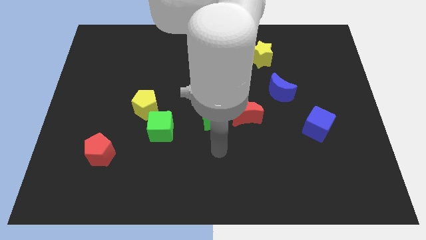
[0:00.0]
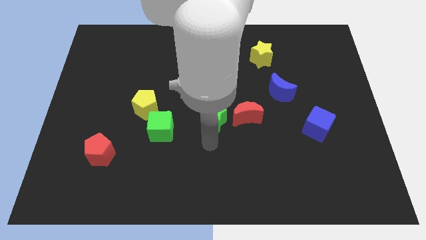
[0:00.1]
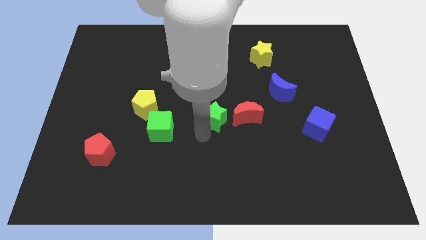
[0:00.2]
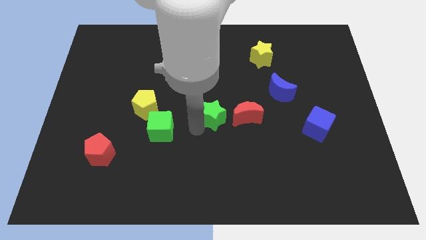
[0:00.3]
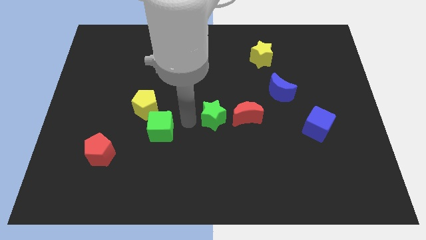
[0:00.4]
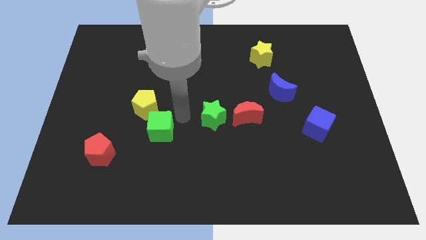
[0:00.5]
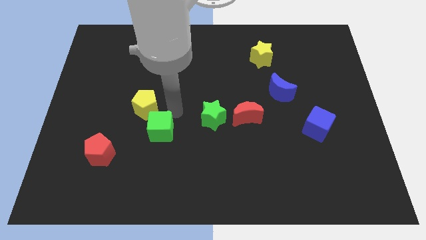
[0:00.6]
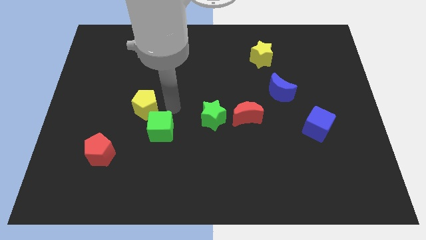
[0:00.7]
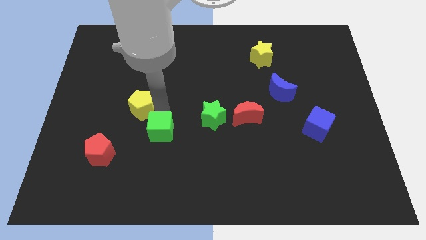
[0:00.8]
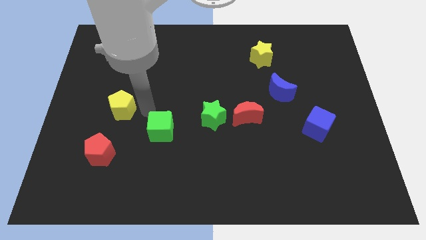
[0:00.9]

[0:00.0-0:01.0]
pull the green cube apart from the yellow pentagon

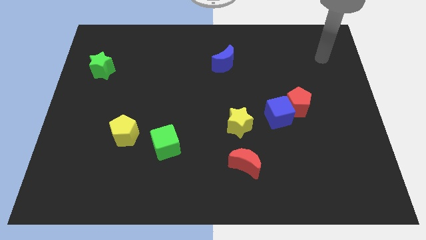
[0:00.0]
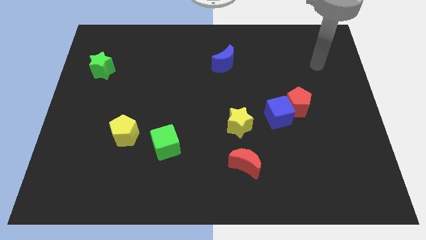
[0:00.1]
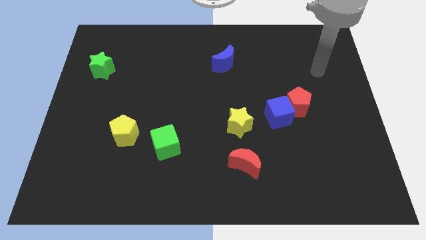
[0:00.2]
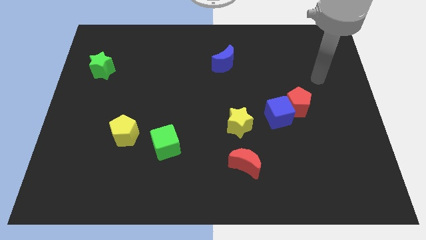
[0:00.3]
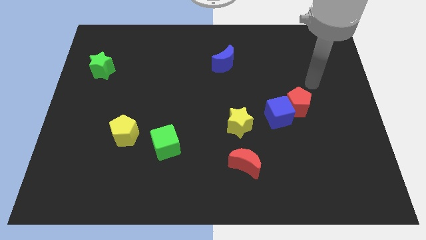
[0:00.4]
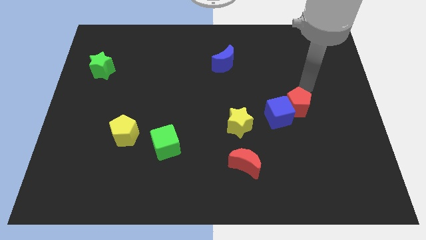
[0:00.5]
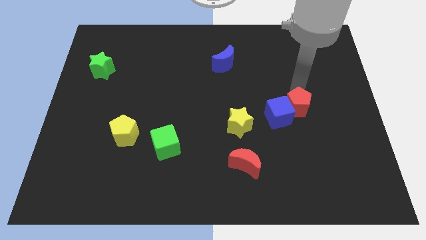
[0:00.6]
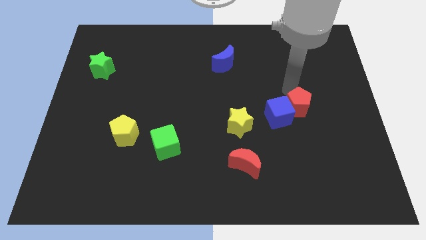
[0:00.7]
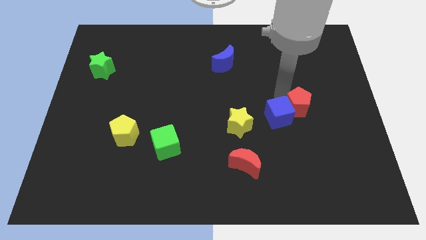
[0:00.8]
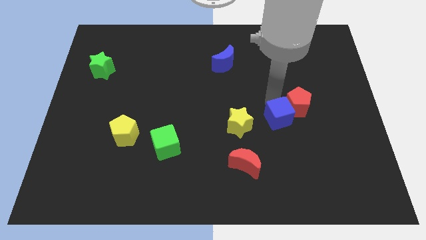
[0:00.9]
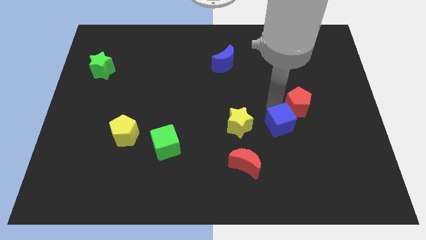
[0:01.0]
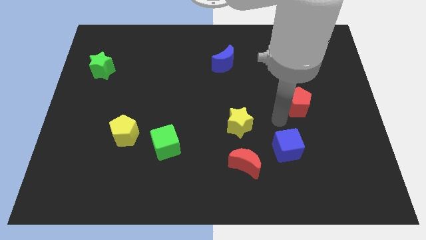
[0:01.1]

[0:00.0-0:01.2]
move the red pentagon away from the blue cube

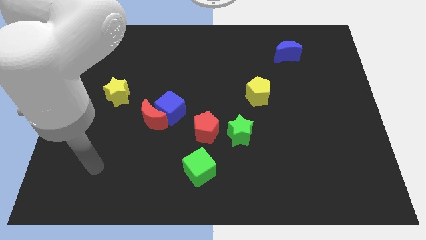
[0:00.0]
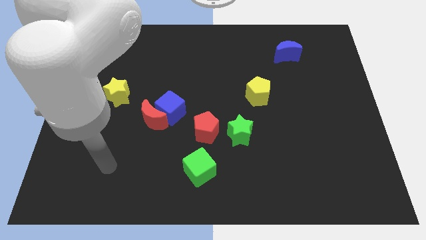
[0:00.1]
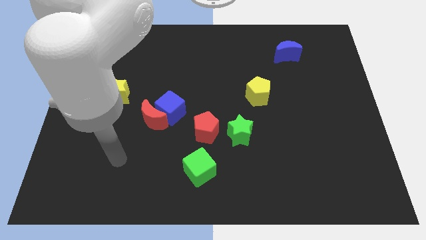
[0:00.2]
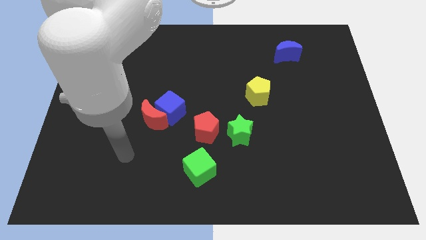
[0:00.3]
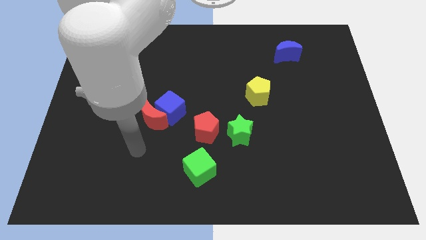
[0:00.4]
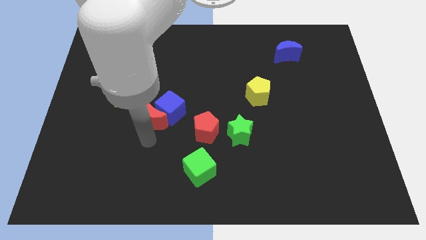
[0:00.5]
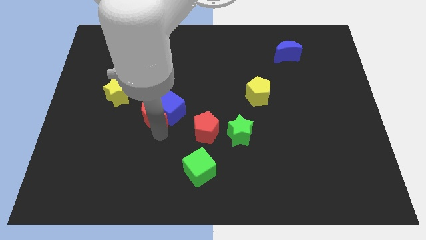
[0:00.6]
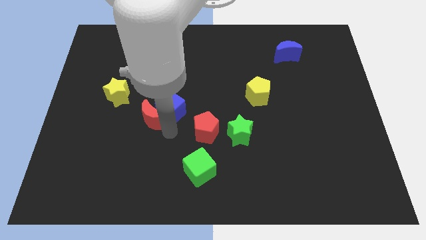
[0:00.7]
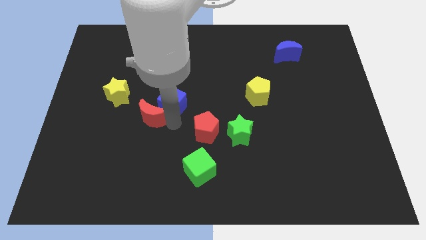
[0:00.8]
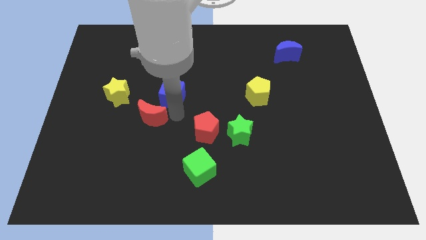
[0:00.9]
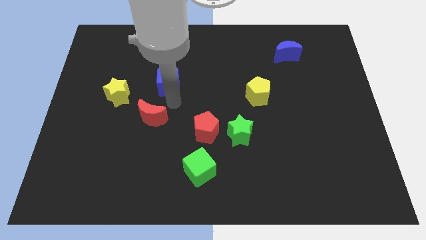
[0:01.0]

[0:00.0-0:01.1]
move the red moon away from the blue cube

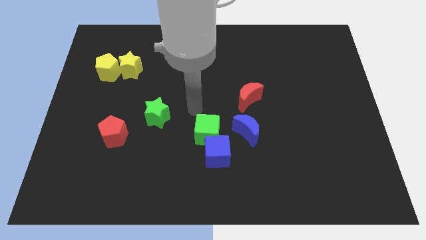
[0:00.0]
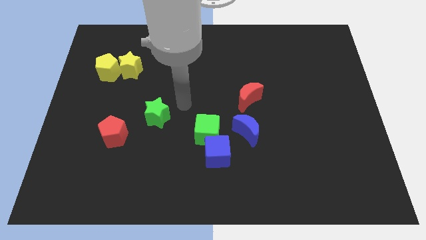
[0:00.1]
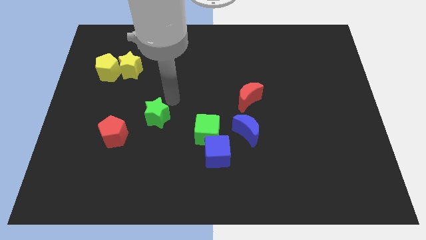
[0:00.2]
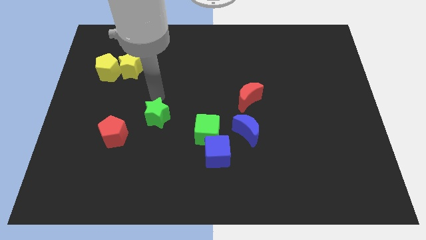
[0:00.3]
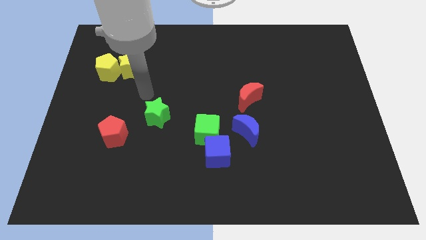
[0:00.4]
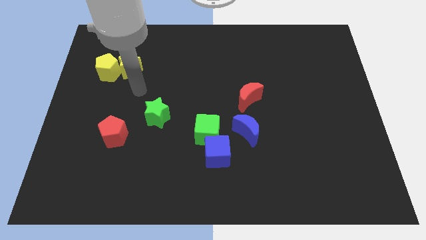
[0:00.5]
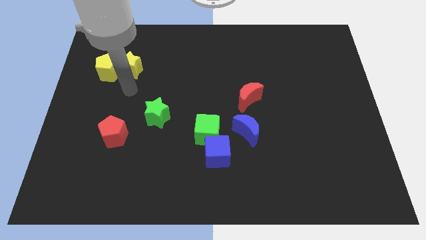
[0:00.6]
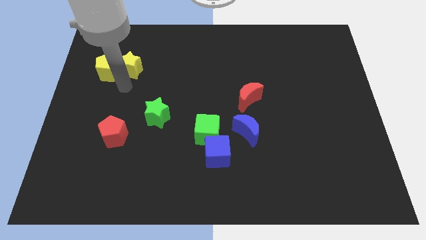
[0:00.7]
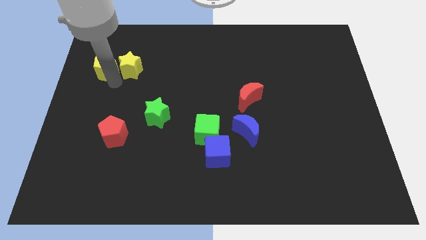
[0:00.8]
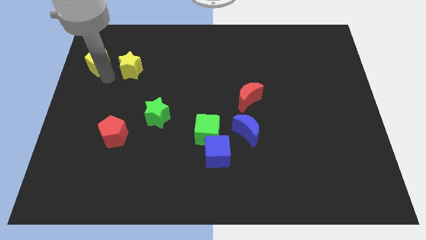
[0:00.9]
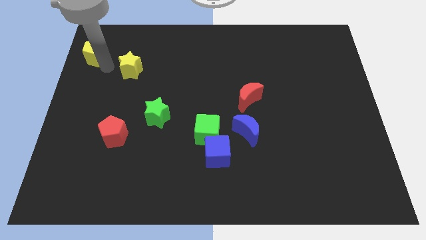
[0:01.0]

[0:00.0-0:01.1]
move the yellow star away from the yellow pentagon

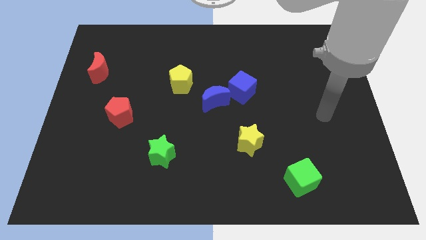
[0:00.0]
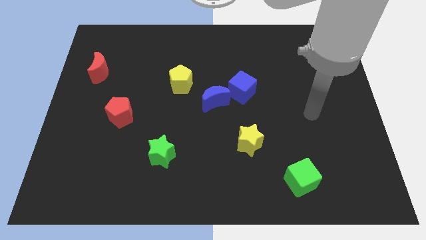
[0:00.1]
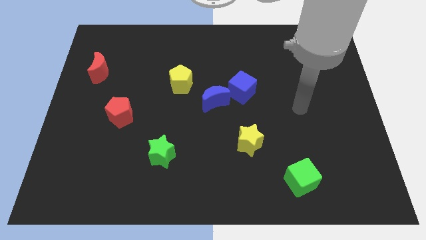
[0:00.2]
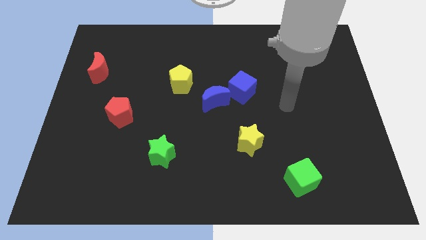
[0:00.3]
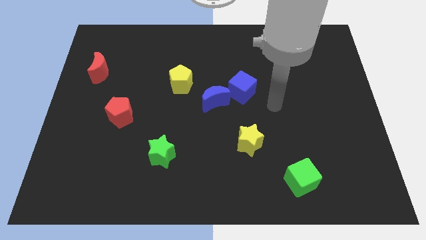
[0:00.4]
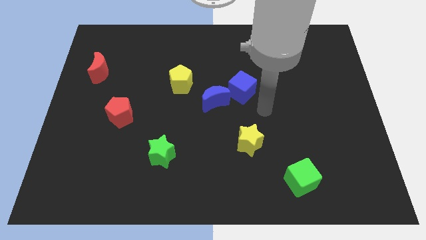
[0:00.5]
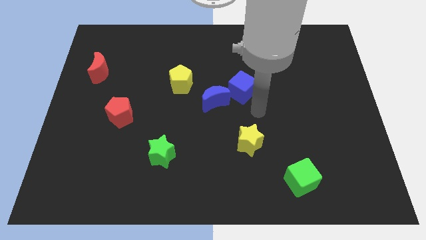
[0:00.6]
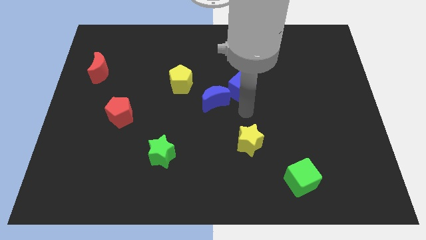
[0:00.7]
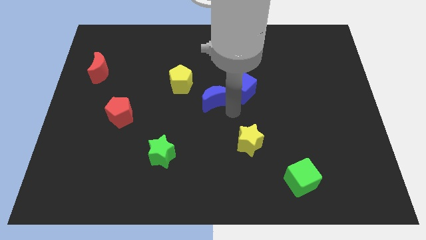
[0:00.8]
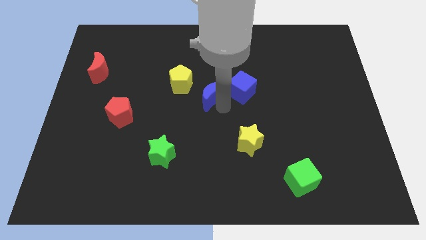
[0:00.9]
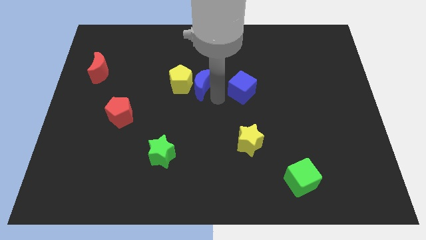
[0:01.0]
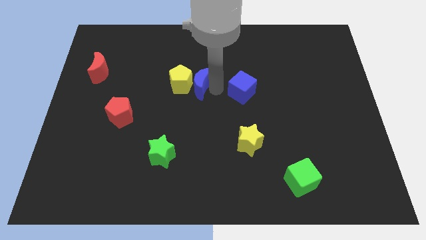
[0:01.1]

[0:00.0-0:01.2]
move the blue cube away from the blue moon

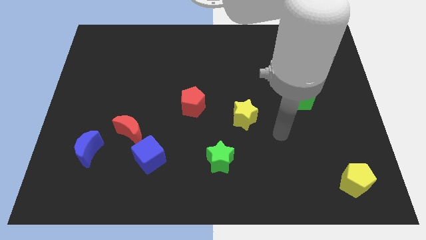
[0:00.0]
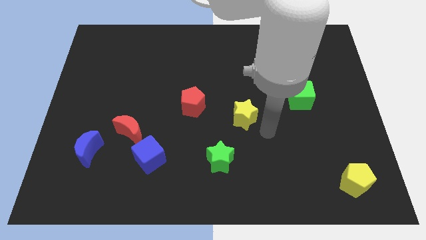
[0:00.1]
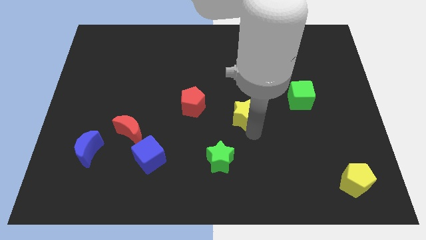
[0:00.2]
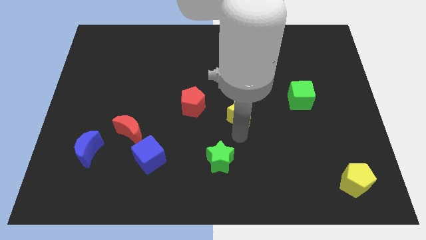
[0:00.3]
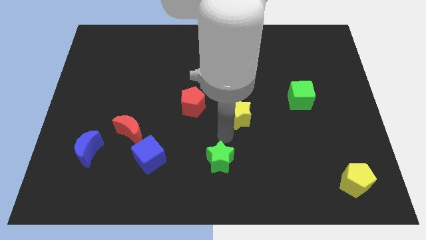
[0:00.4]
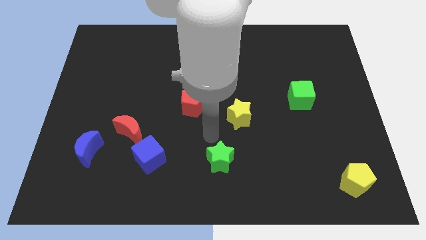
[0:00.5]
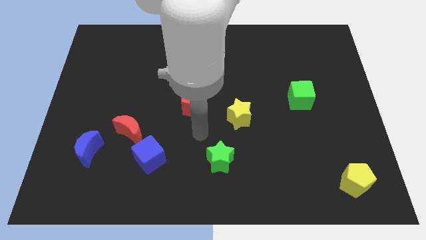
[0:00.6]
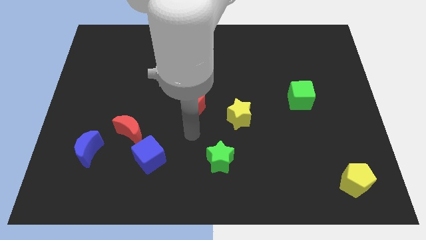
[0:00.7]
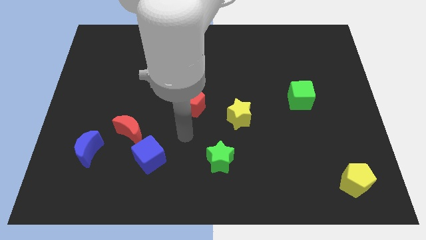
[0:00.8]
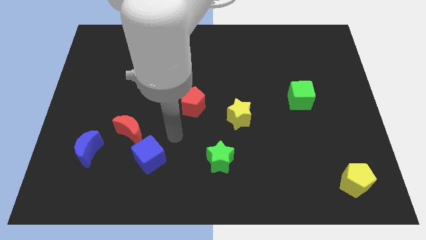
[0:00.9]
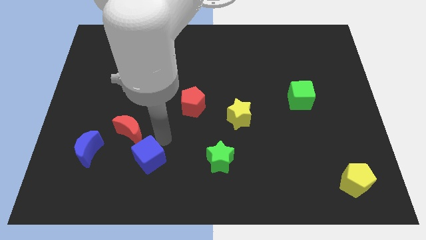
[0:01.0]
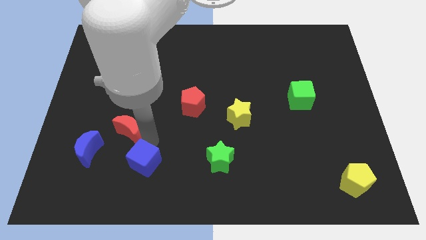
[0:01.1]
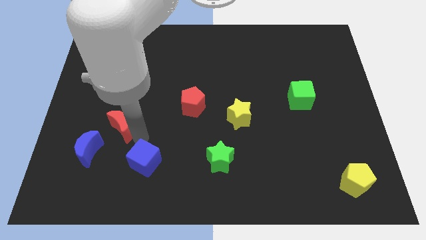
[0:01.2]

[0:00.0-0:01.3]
separate the blue cube from the red moon

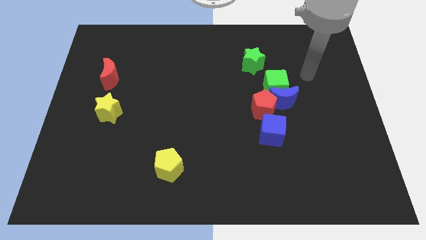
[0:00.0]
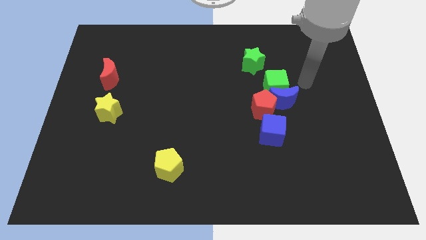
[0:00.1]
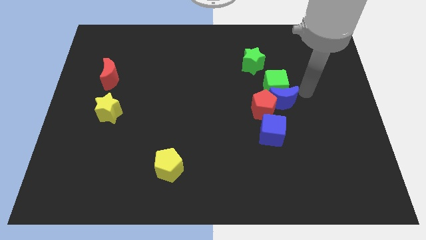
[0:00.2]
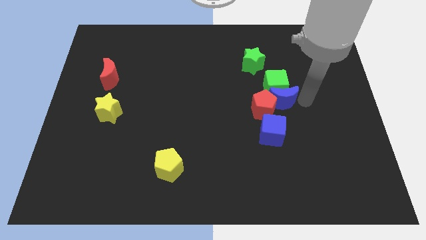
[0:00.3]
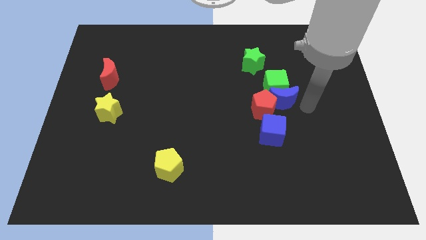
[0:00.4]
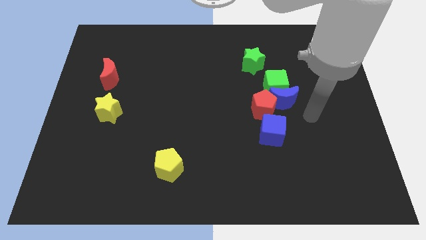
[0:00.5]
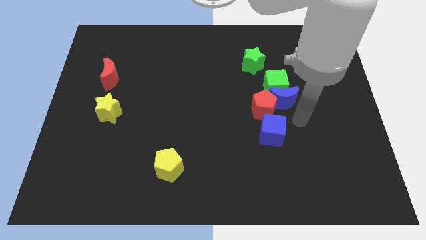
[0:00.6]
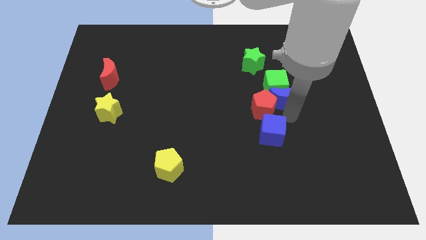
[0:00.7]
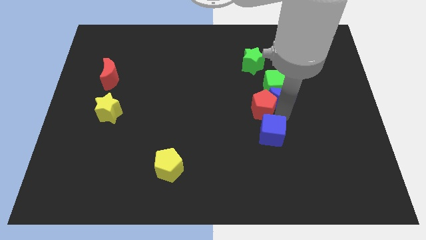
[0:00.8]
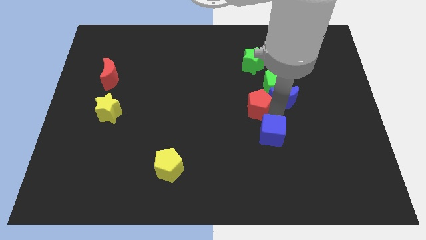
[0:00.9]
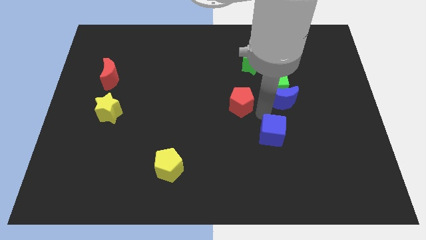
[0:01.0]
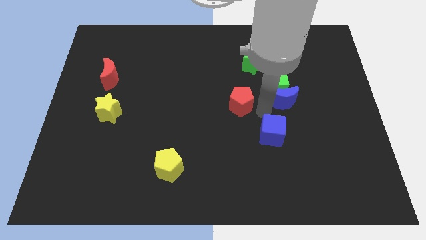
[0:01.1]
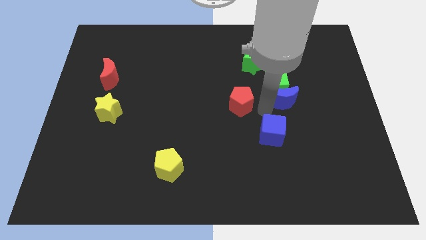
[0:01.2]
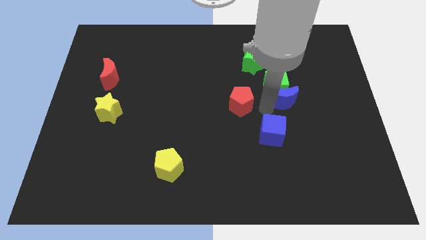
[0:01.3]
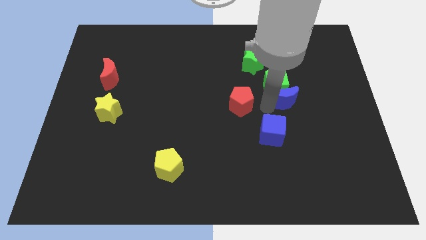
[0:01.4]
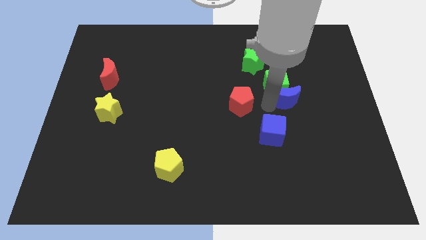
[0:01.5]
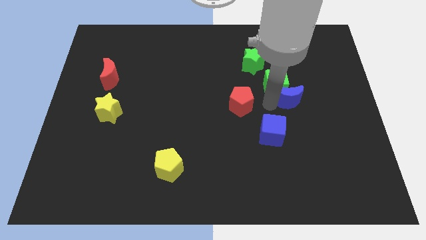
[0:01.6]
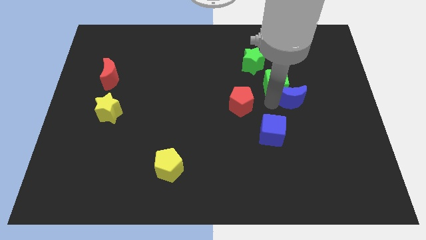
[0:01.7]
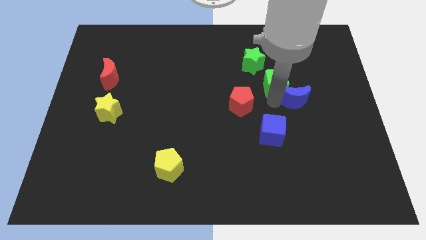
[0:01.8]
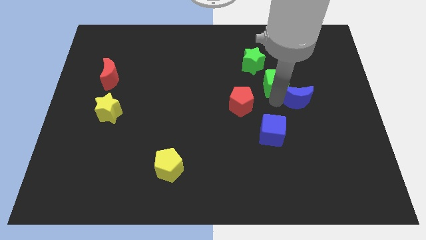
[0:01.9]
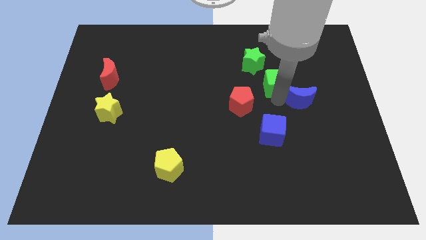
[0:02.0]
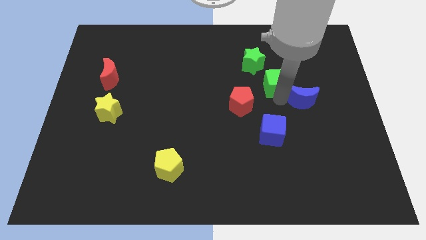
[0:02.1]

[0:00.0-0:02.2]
pull the blue moon apart from the green cube, red pentagon, and blue cube
